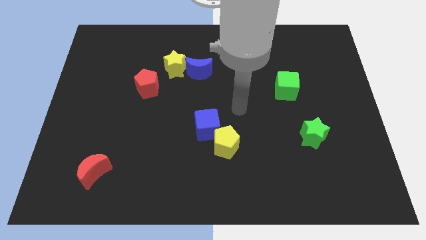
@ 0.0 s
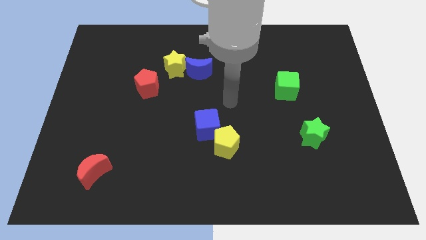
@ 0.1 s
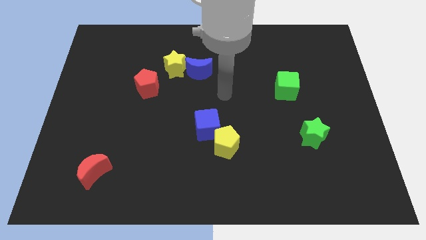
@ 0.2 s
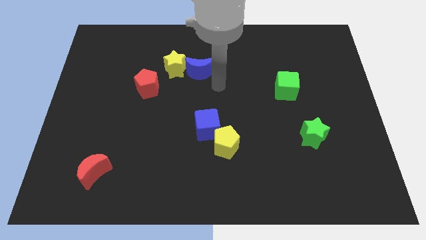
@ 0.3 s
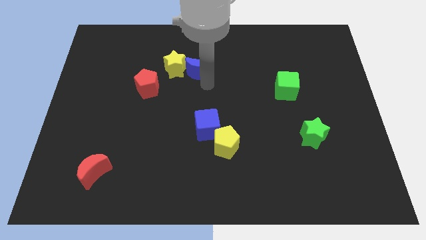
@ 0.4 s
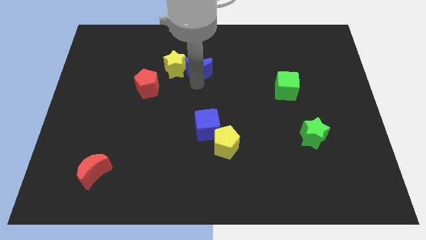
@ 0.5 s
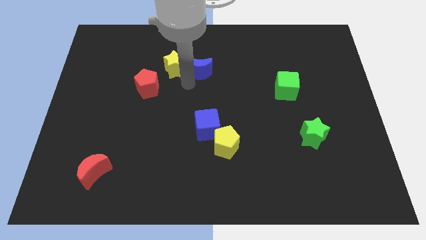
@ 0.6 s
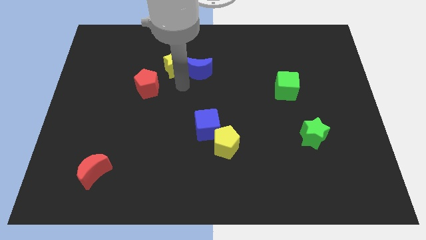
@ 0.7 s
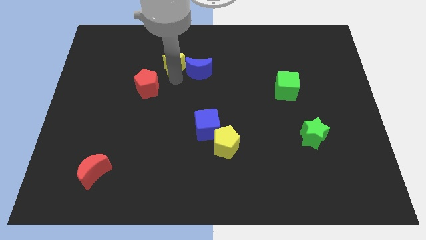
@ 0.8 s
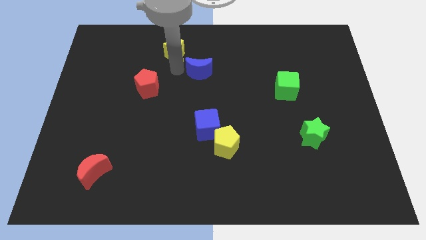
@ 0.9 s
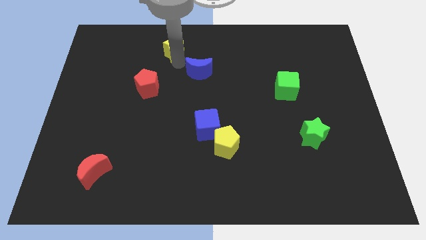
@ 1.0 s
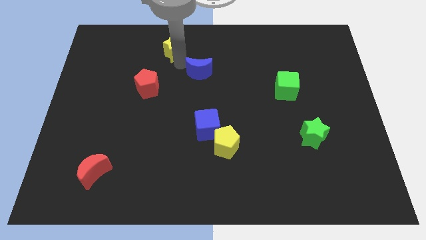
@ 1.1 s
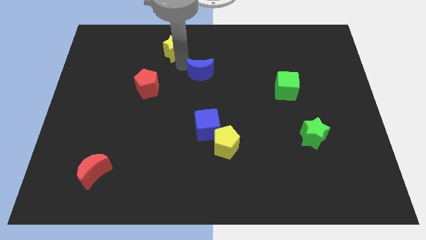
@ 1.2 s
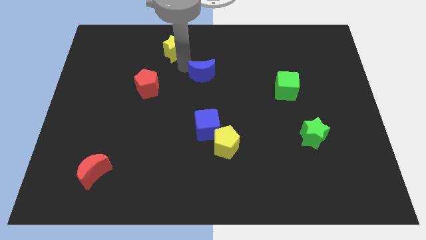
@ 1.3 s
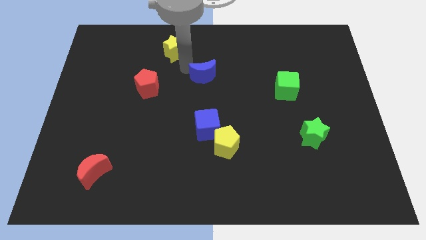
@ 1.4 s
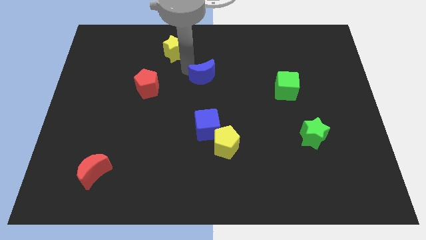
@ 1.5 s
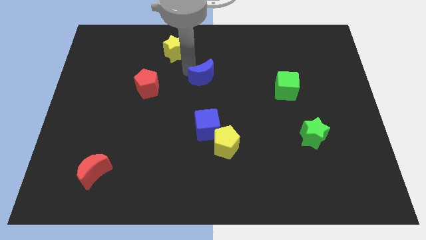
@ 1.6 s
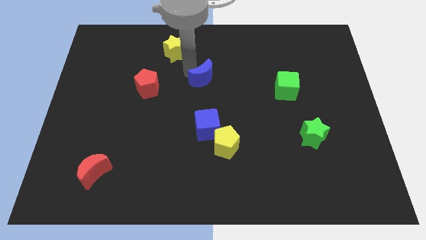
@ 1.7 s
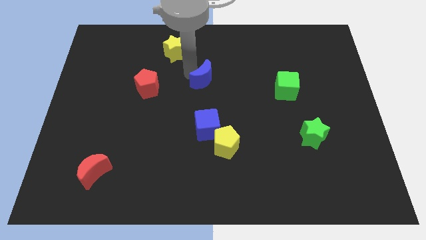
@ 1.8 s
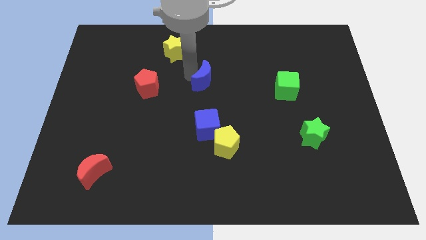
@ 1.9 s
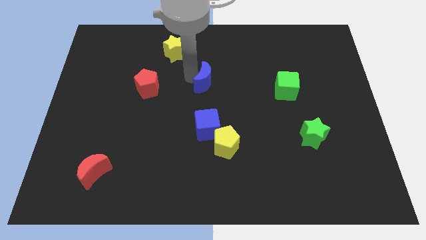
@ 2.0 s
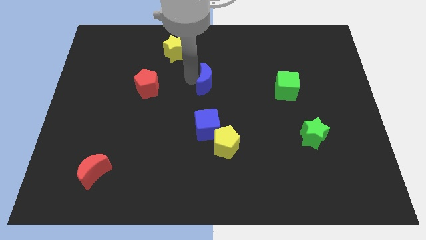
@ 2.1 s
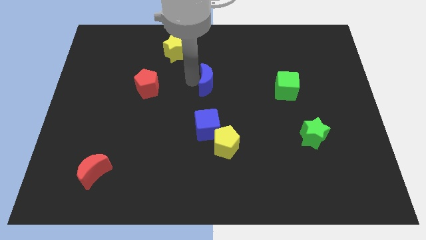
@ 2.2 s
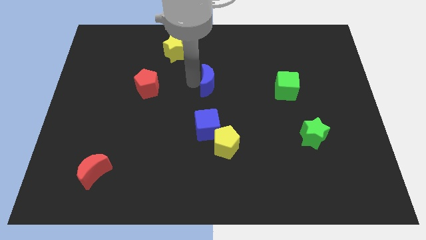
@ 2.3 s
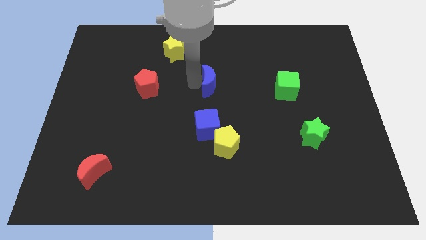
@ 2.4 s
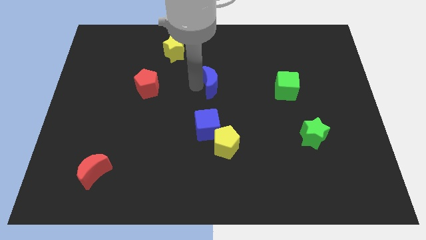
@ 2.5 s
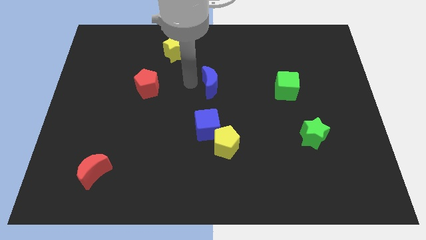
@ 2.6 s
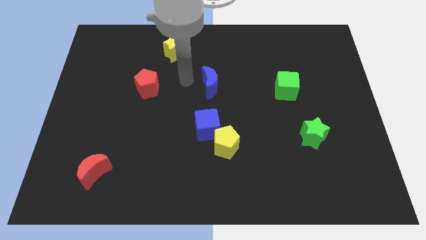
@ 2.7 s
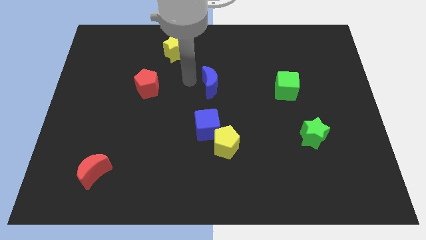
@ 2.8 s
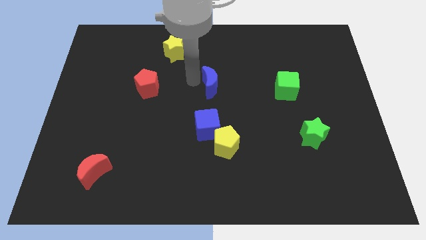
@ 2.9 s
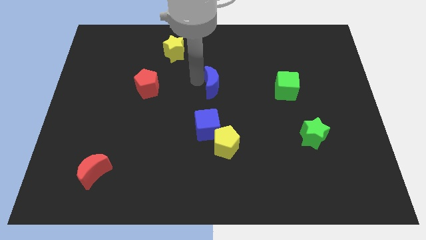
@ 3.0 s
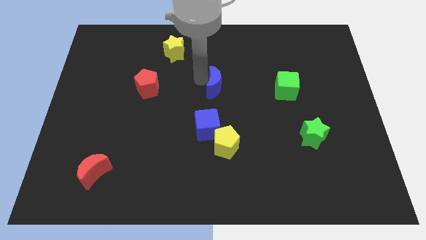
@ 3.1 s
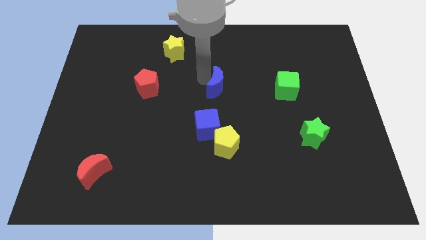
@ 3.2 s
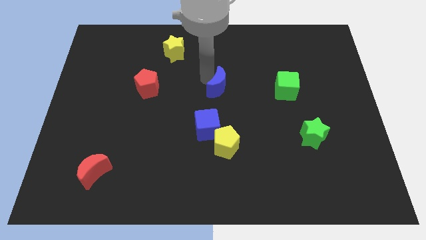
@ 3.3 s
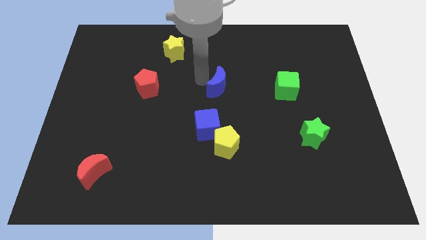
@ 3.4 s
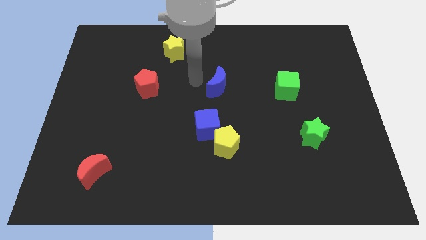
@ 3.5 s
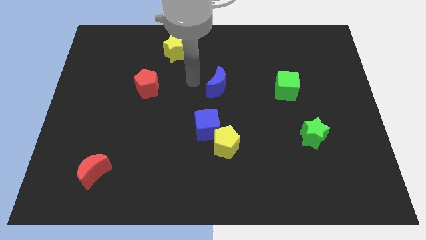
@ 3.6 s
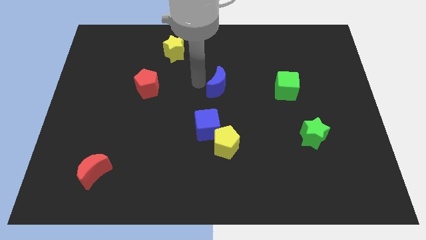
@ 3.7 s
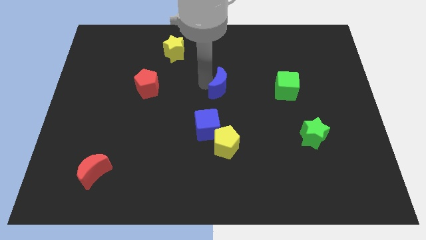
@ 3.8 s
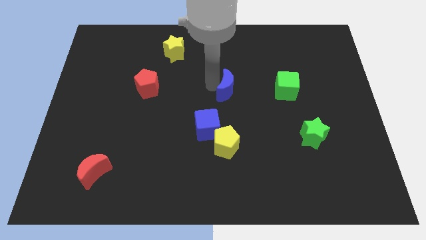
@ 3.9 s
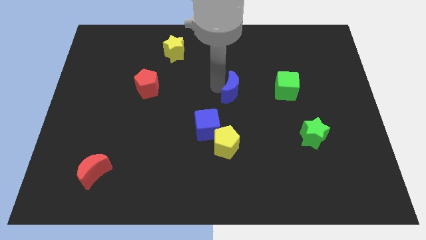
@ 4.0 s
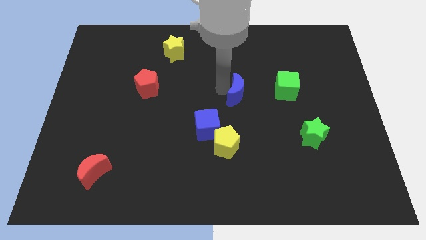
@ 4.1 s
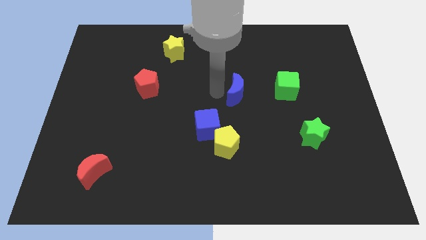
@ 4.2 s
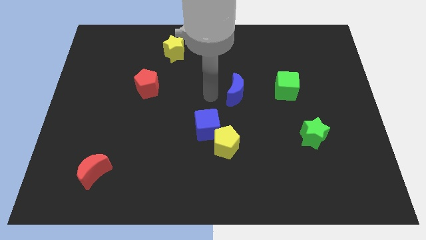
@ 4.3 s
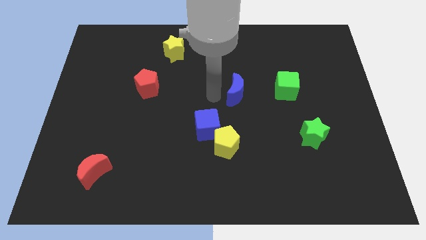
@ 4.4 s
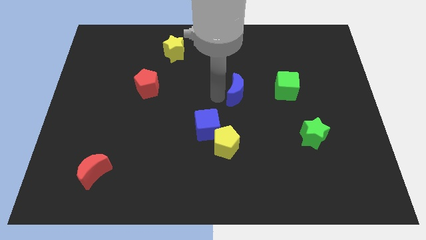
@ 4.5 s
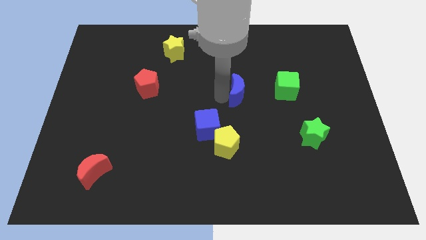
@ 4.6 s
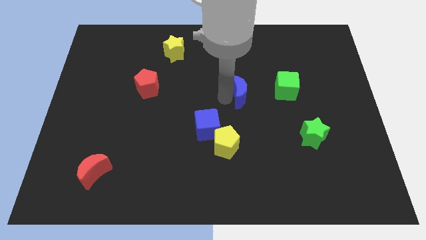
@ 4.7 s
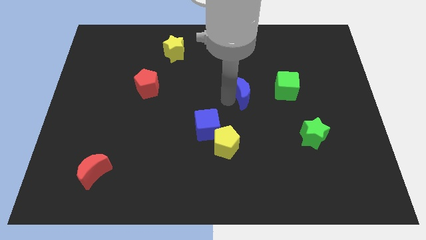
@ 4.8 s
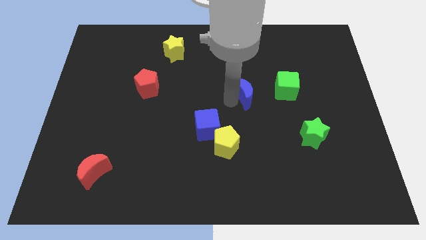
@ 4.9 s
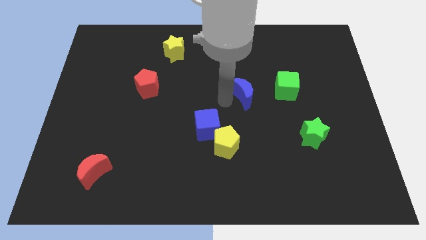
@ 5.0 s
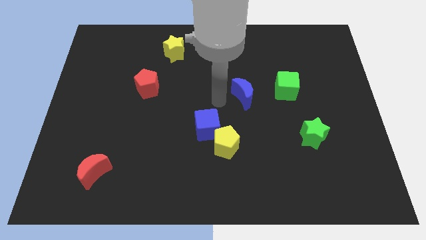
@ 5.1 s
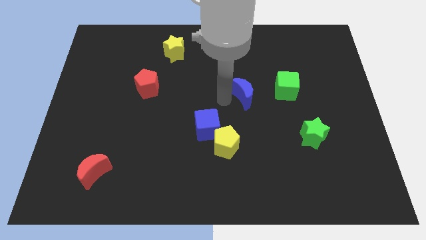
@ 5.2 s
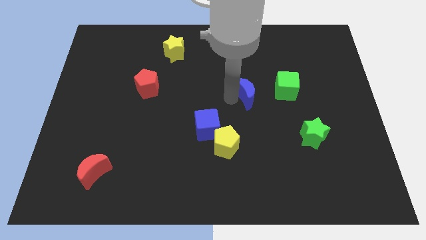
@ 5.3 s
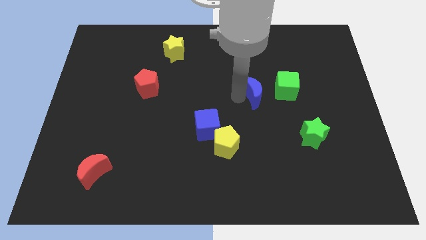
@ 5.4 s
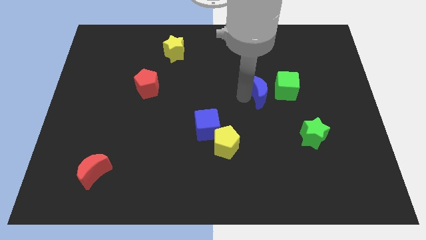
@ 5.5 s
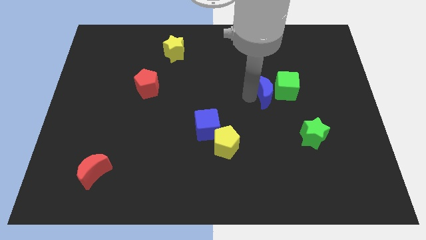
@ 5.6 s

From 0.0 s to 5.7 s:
push the blue moon to the green cube

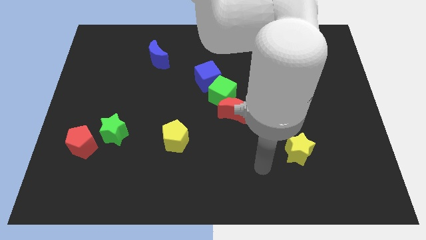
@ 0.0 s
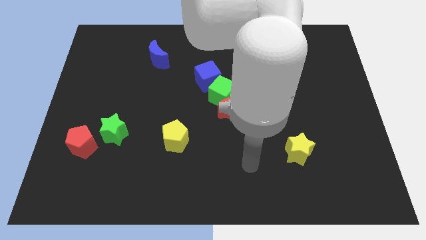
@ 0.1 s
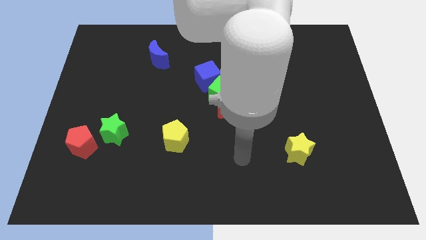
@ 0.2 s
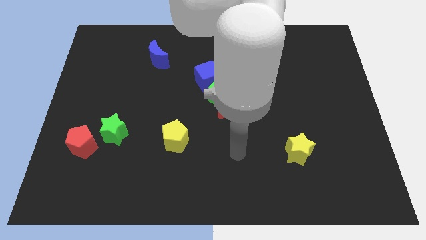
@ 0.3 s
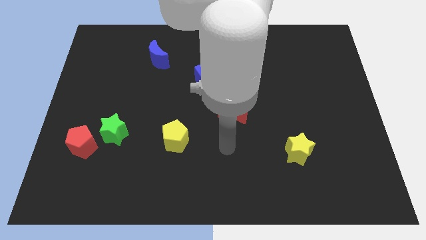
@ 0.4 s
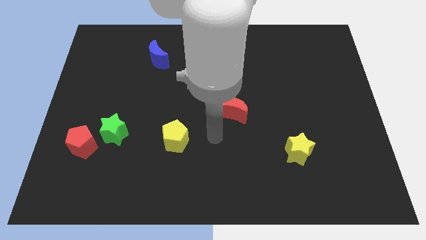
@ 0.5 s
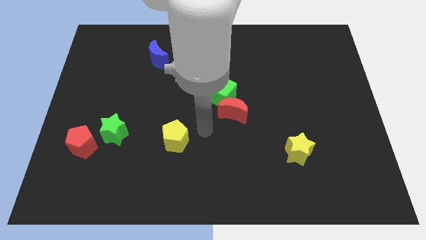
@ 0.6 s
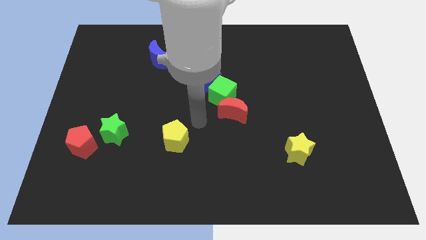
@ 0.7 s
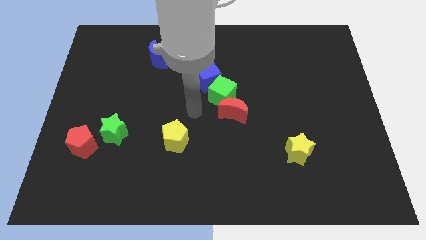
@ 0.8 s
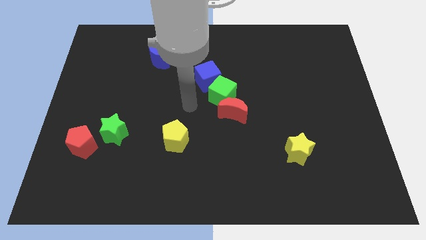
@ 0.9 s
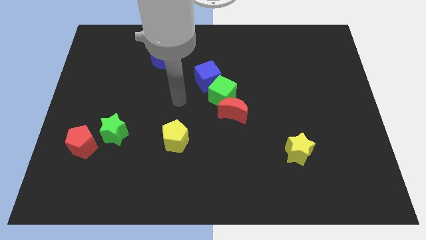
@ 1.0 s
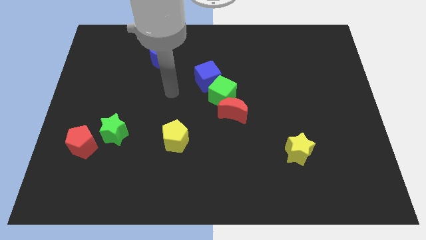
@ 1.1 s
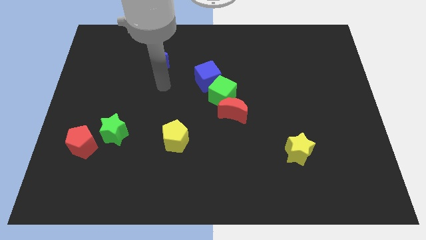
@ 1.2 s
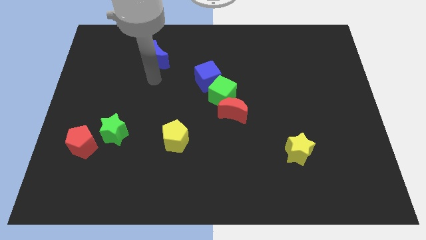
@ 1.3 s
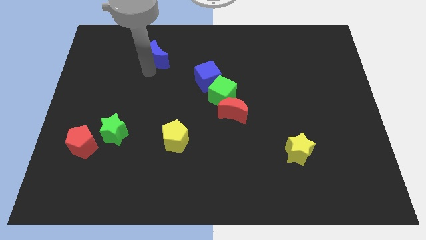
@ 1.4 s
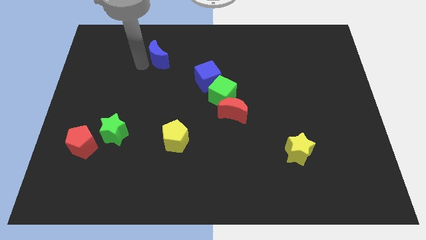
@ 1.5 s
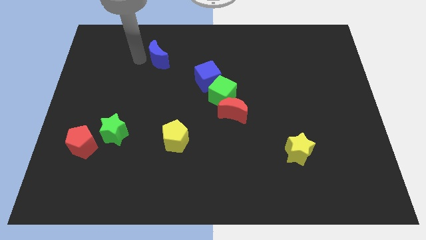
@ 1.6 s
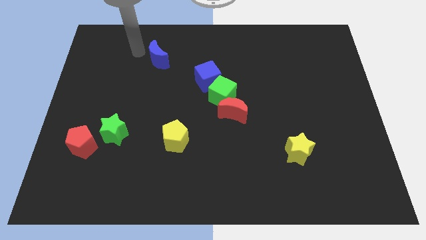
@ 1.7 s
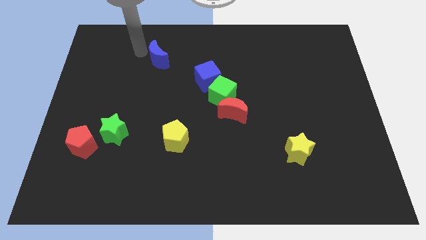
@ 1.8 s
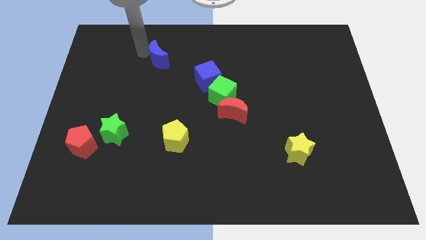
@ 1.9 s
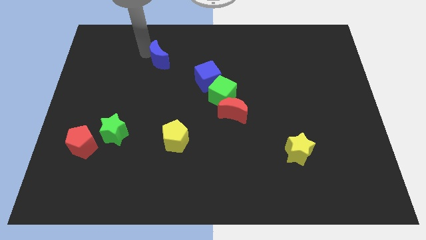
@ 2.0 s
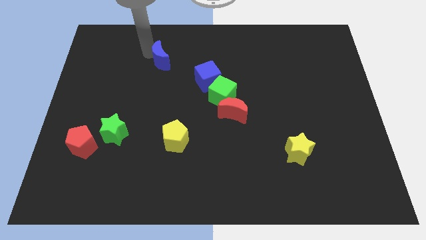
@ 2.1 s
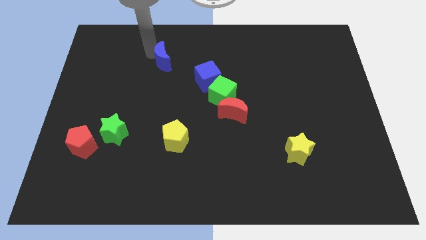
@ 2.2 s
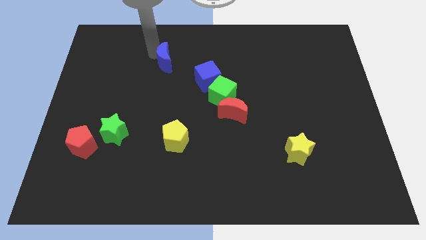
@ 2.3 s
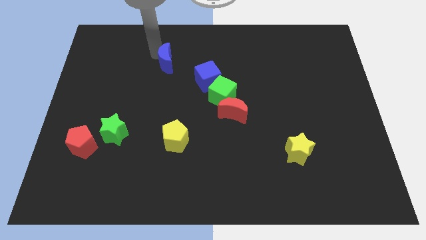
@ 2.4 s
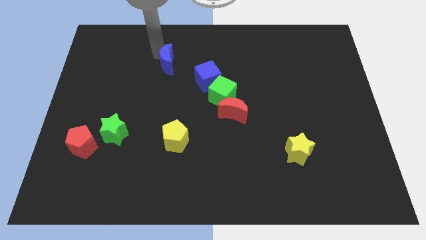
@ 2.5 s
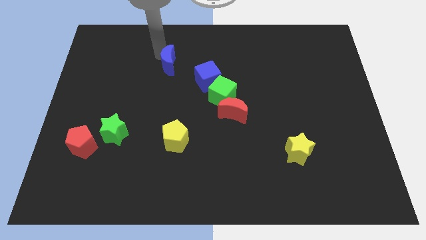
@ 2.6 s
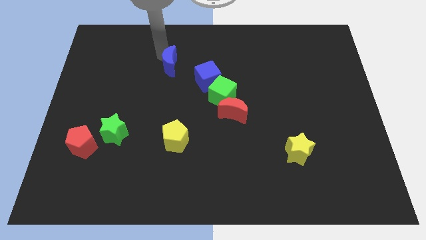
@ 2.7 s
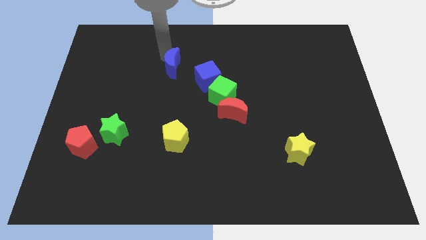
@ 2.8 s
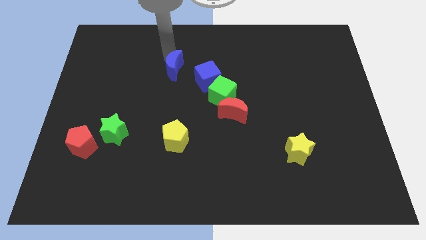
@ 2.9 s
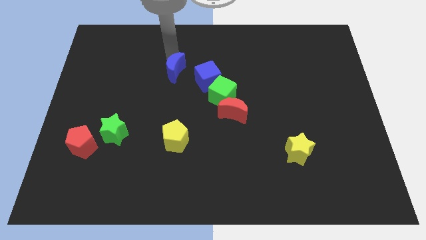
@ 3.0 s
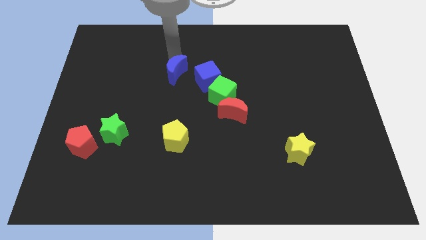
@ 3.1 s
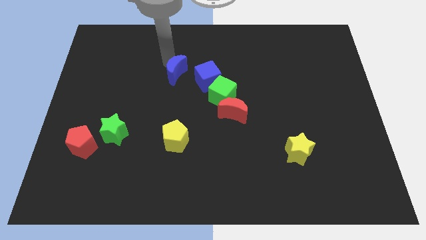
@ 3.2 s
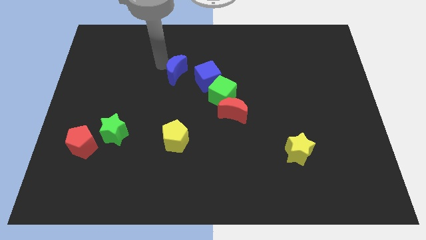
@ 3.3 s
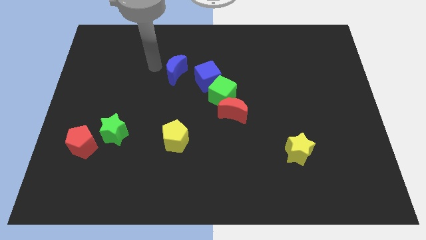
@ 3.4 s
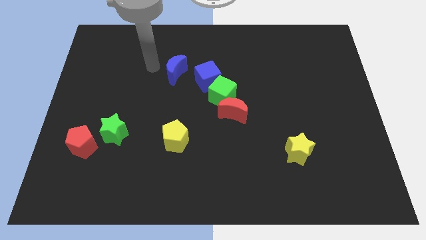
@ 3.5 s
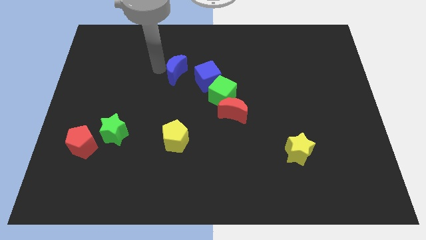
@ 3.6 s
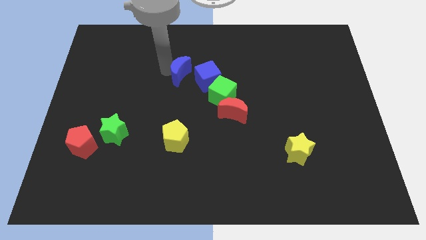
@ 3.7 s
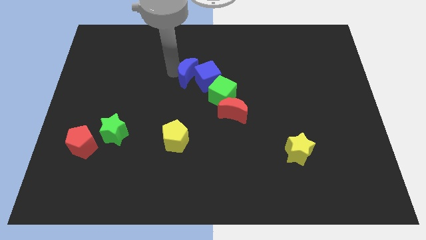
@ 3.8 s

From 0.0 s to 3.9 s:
move the blue moon to the blue cube
